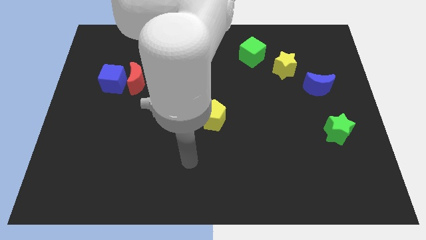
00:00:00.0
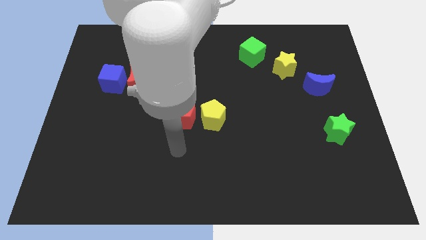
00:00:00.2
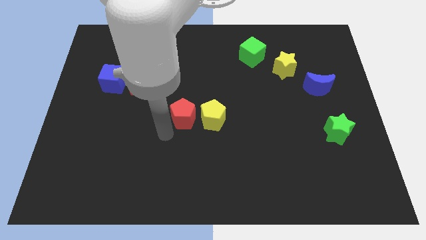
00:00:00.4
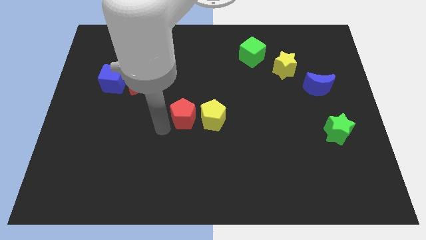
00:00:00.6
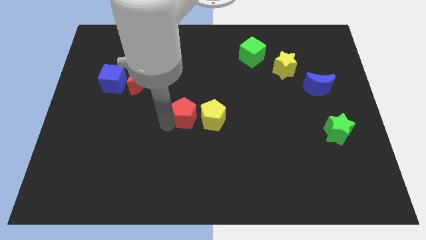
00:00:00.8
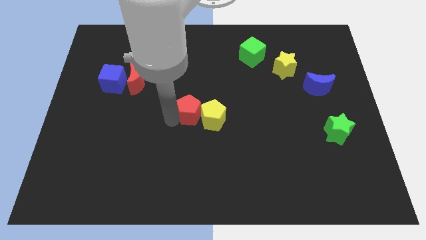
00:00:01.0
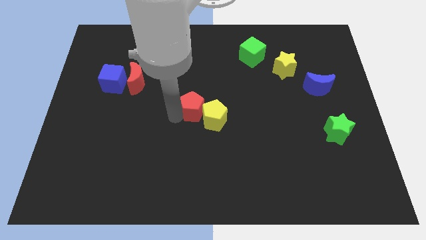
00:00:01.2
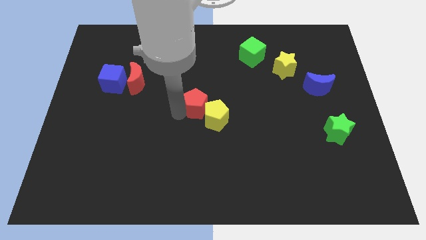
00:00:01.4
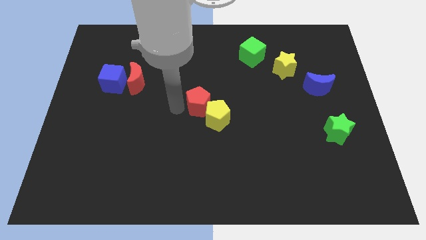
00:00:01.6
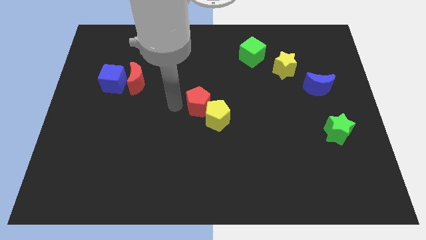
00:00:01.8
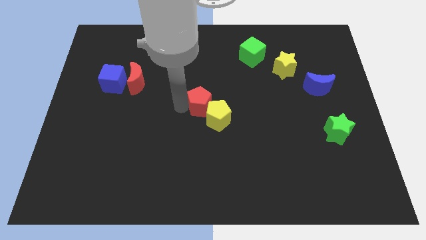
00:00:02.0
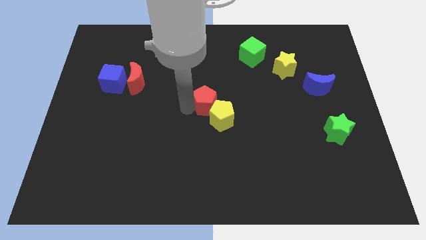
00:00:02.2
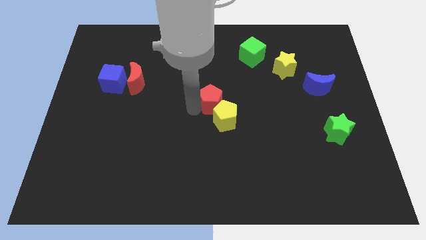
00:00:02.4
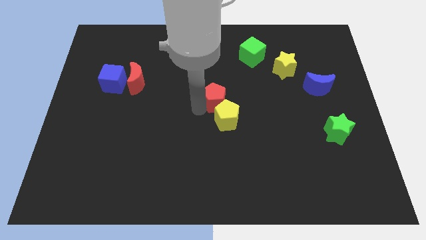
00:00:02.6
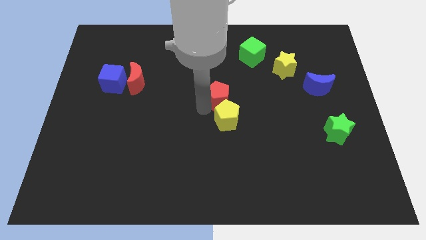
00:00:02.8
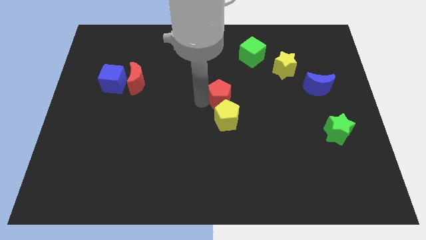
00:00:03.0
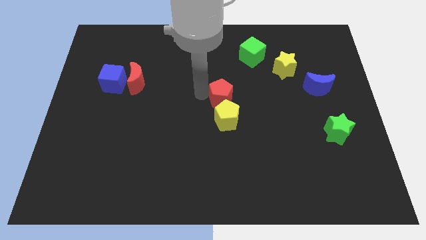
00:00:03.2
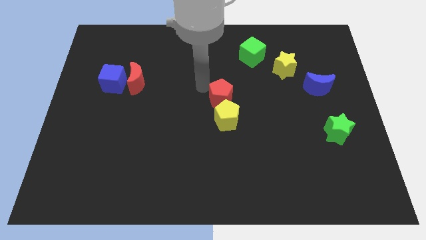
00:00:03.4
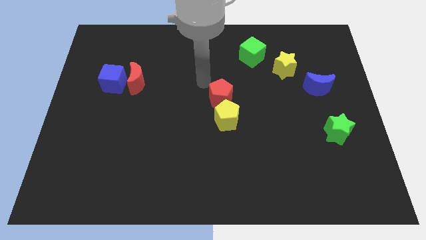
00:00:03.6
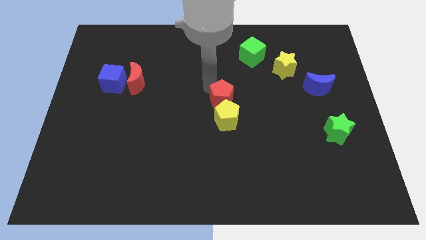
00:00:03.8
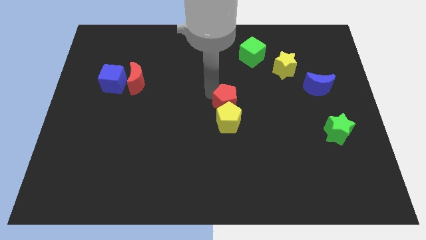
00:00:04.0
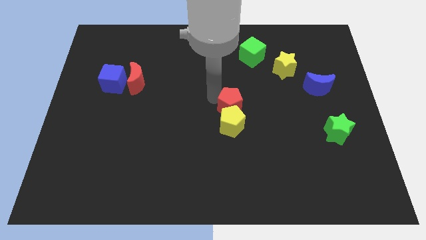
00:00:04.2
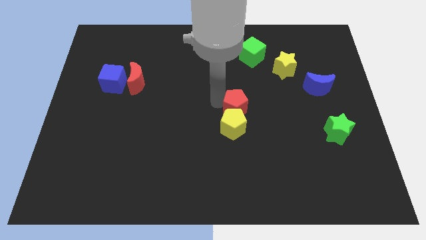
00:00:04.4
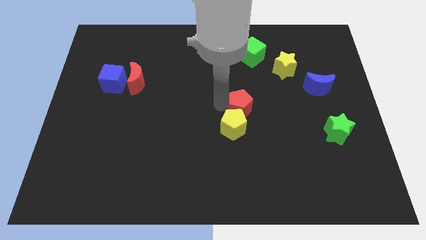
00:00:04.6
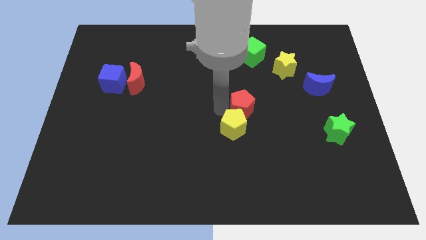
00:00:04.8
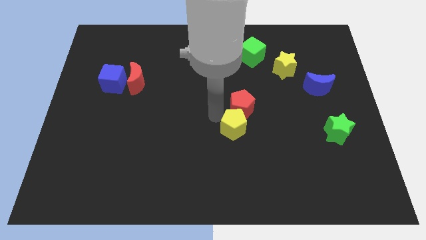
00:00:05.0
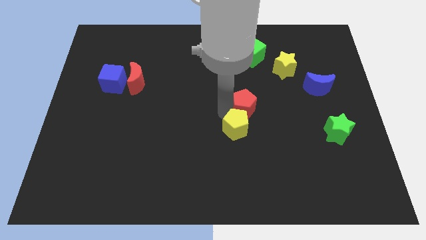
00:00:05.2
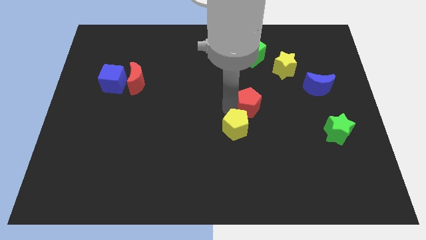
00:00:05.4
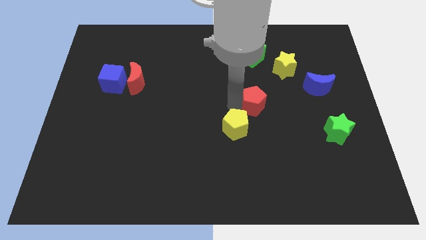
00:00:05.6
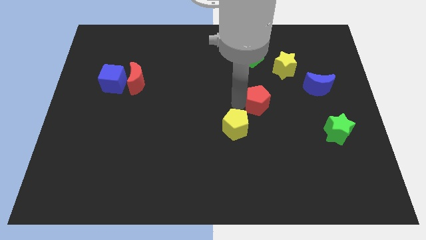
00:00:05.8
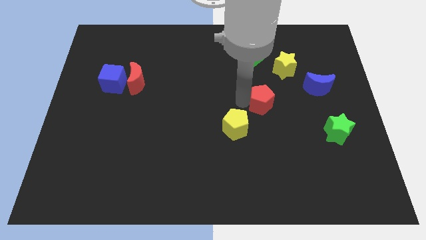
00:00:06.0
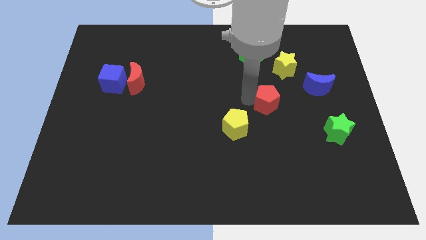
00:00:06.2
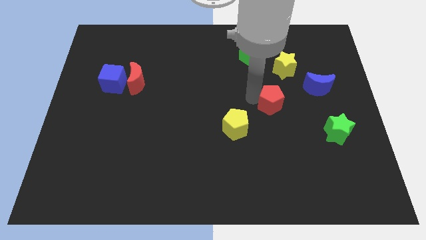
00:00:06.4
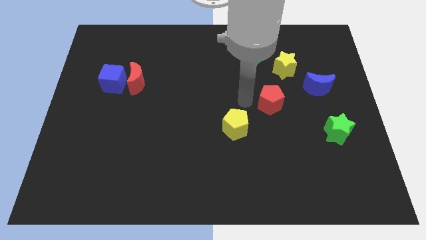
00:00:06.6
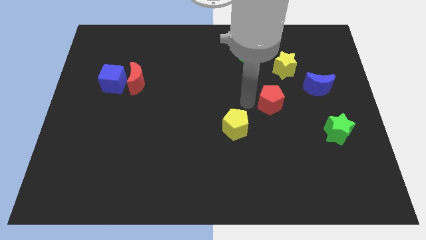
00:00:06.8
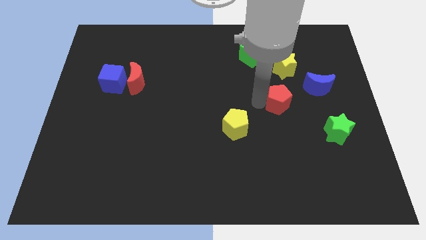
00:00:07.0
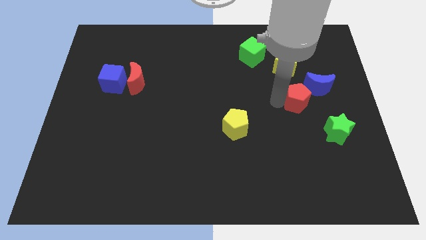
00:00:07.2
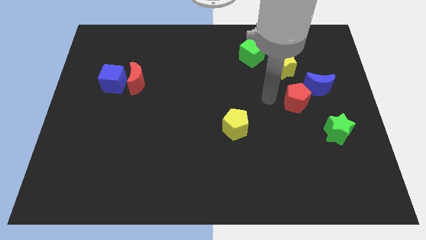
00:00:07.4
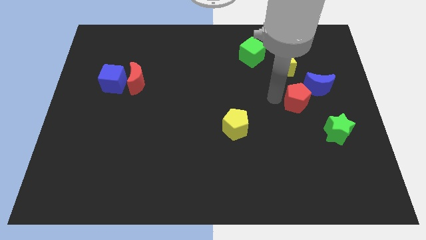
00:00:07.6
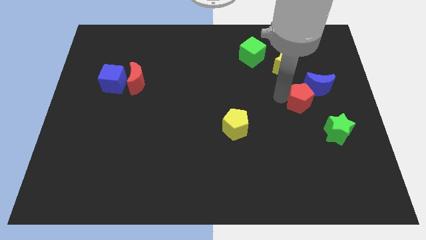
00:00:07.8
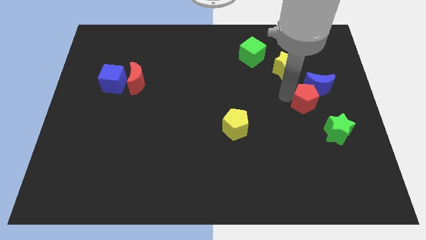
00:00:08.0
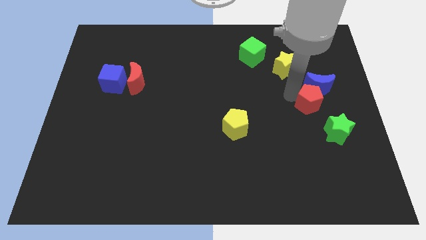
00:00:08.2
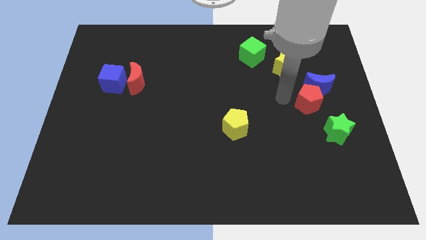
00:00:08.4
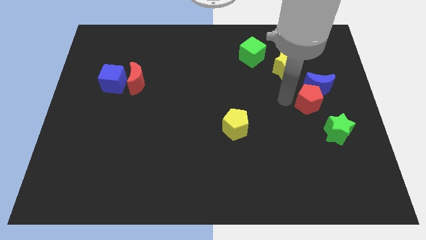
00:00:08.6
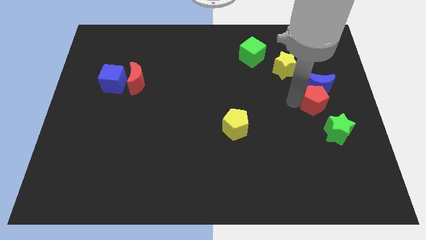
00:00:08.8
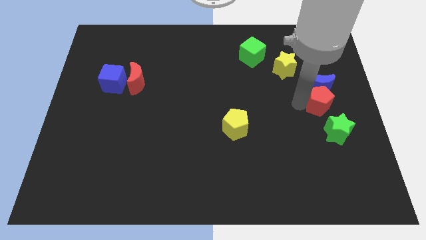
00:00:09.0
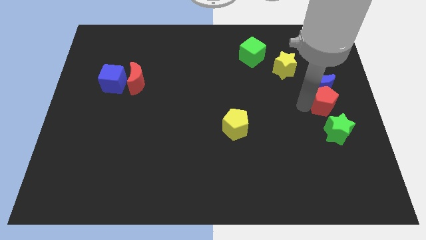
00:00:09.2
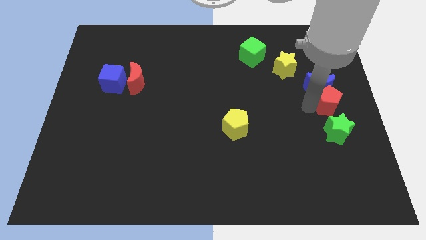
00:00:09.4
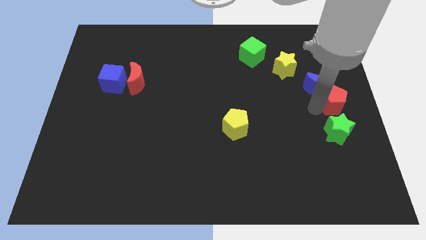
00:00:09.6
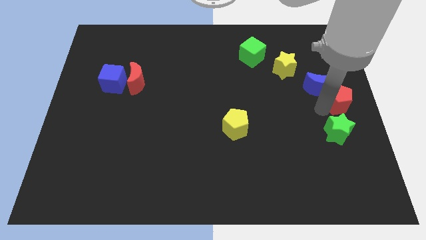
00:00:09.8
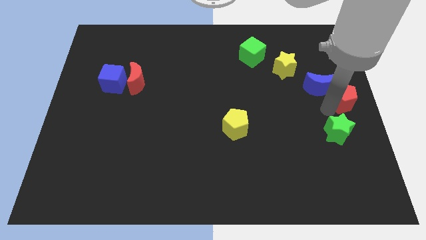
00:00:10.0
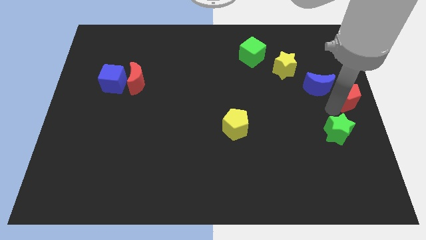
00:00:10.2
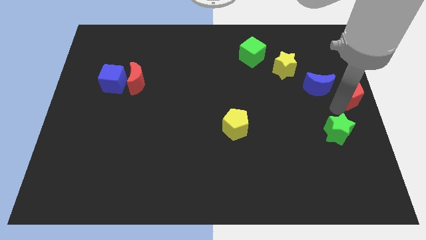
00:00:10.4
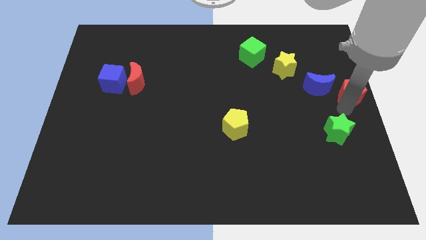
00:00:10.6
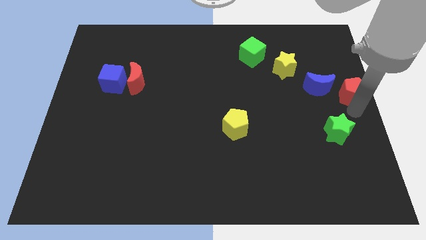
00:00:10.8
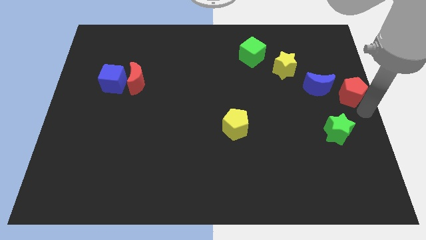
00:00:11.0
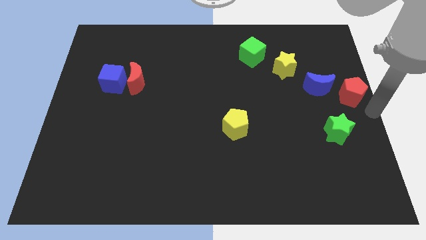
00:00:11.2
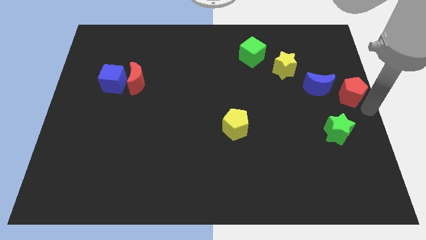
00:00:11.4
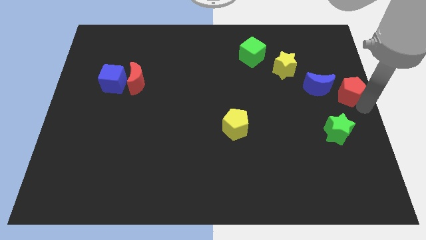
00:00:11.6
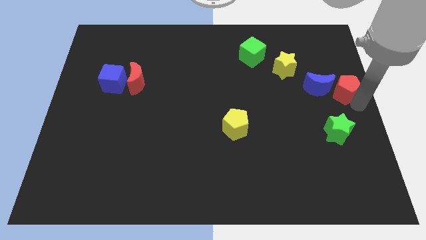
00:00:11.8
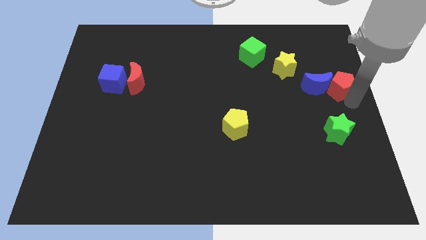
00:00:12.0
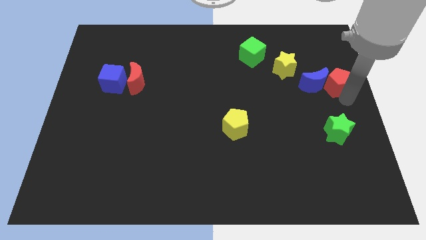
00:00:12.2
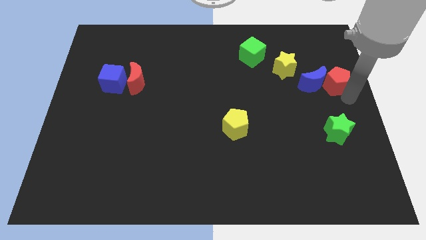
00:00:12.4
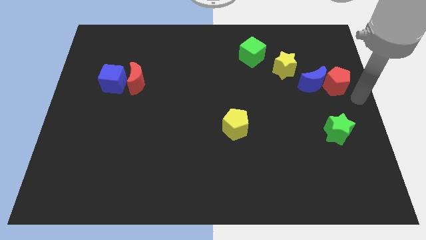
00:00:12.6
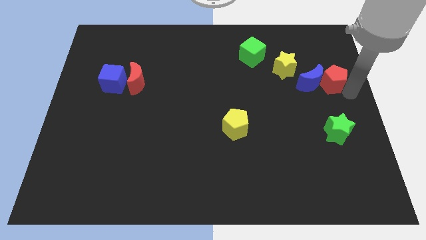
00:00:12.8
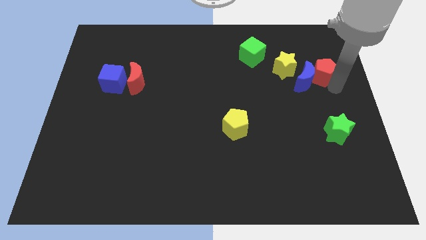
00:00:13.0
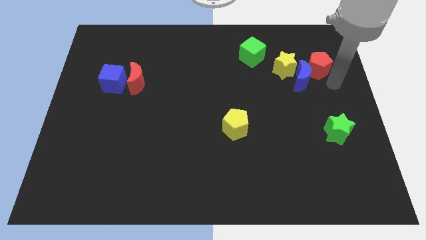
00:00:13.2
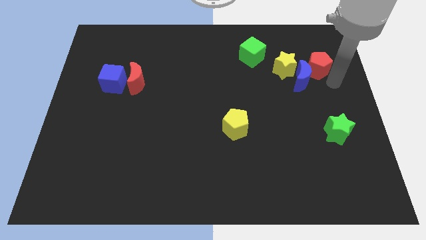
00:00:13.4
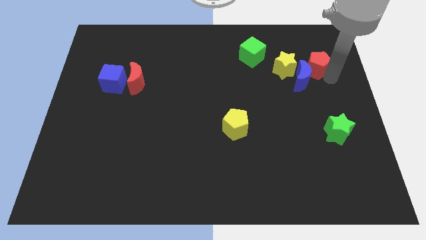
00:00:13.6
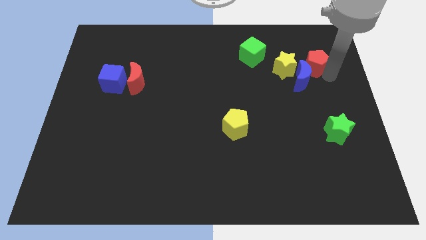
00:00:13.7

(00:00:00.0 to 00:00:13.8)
slide the red pentagon to the top right of the yellow star

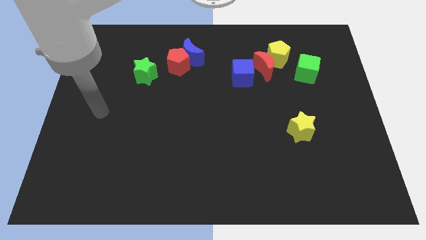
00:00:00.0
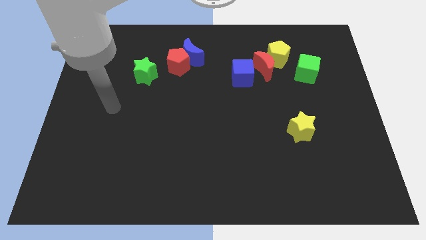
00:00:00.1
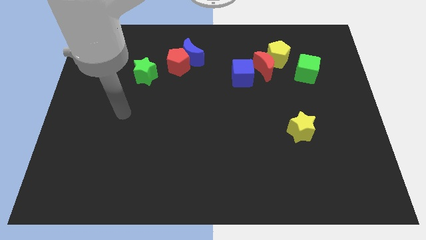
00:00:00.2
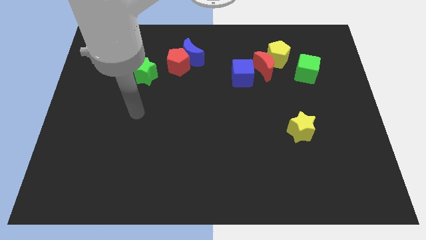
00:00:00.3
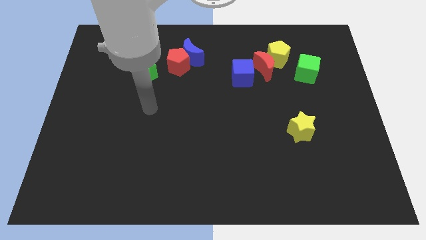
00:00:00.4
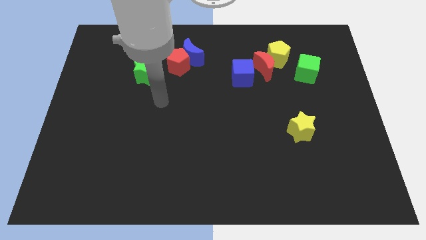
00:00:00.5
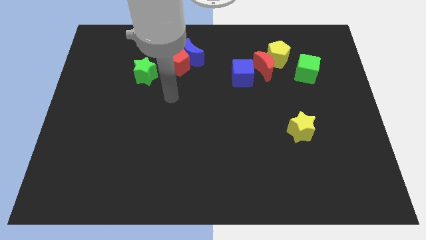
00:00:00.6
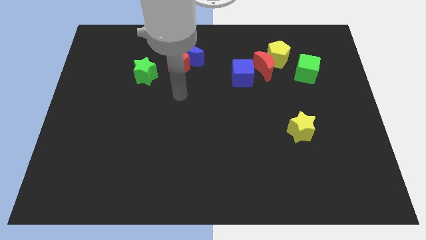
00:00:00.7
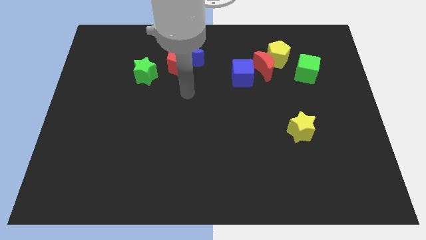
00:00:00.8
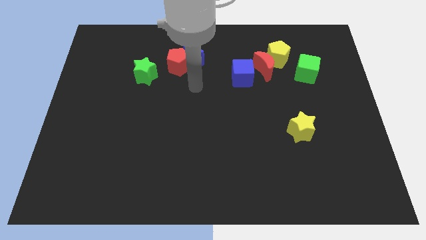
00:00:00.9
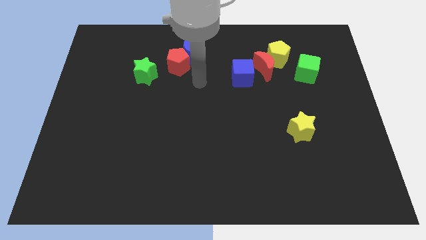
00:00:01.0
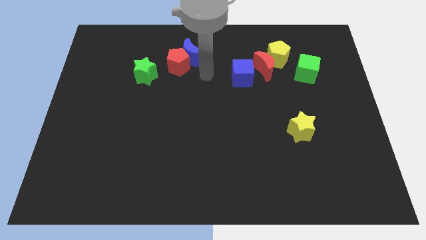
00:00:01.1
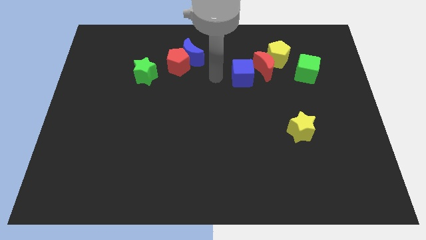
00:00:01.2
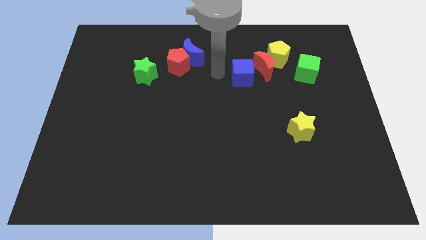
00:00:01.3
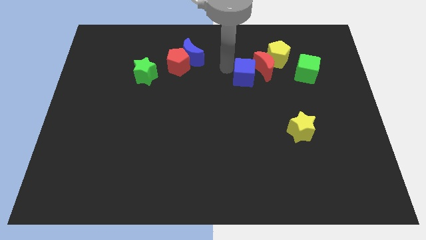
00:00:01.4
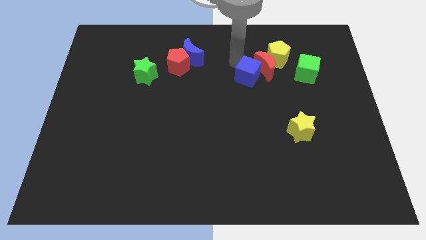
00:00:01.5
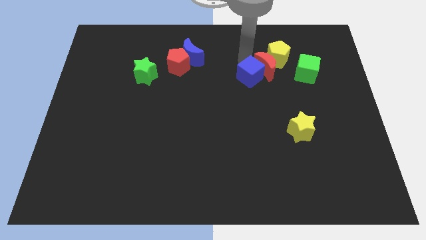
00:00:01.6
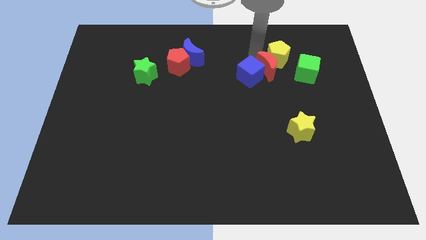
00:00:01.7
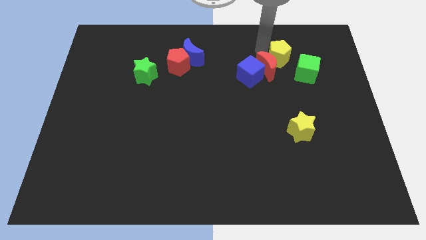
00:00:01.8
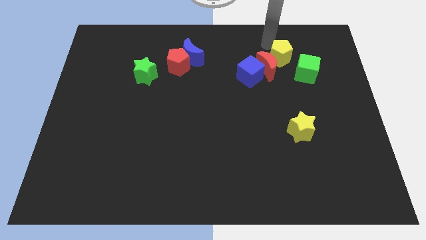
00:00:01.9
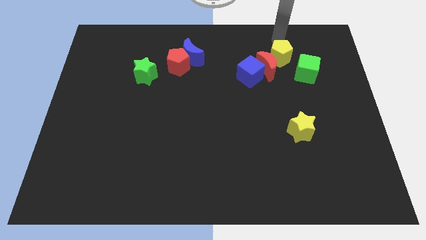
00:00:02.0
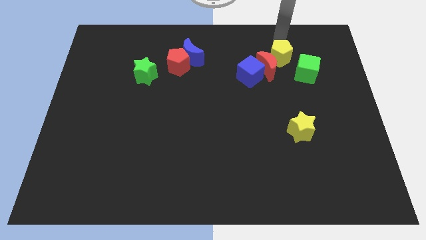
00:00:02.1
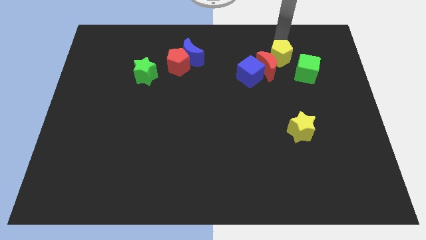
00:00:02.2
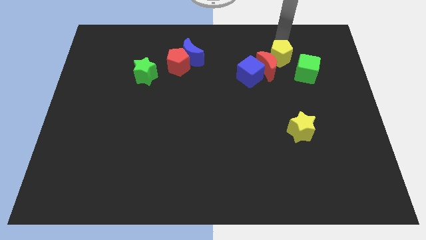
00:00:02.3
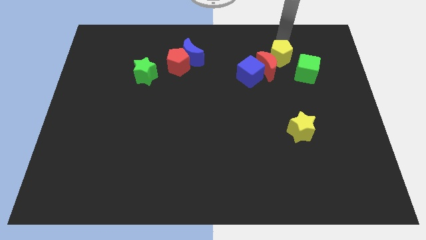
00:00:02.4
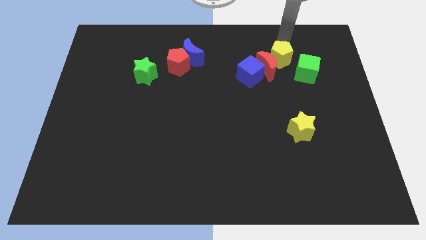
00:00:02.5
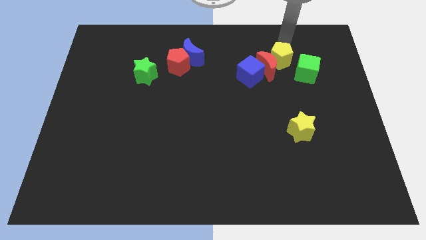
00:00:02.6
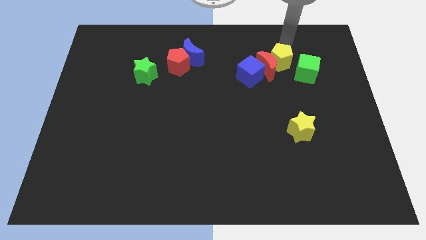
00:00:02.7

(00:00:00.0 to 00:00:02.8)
put the yellow pentagon right of the blue cube
